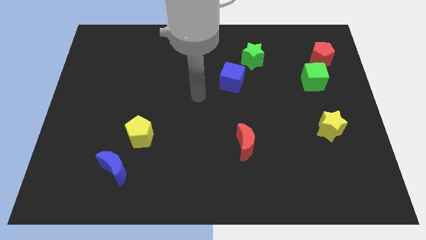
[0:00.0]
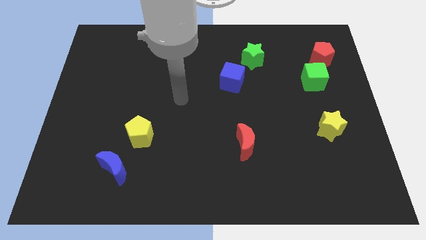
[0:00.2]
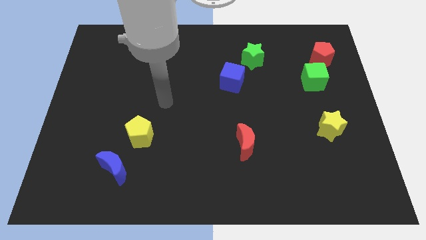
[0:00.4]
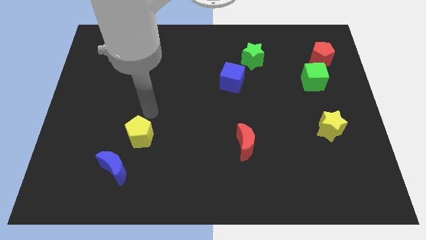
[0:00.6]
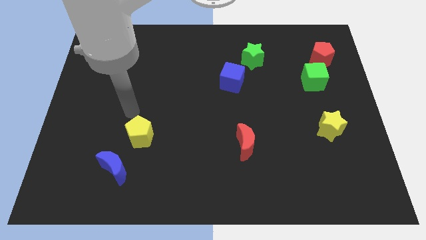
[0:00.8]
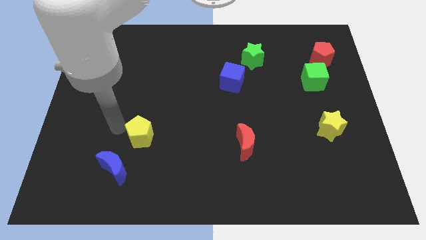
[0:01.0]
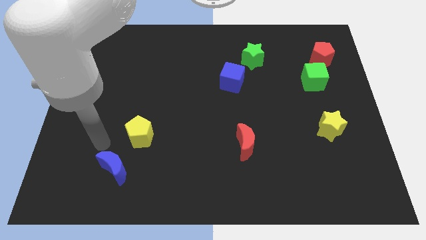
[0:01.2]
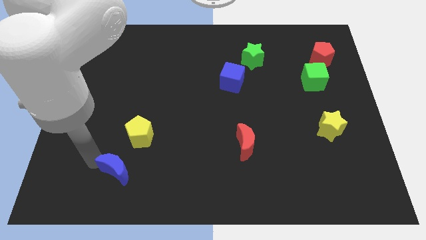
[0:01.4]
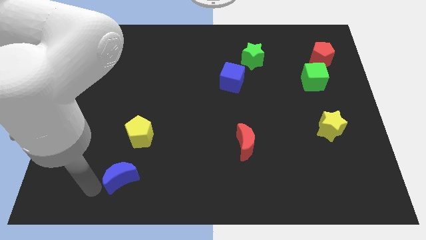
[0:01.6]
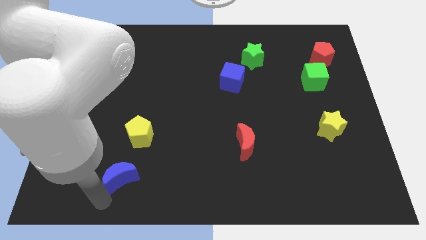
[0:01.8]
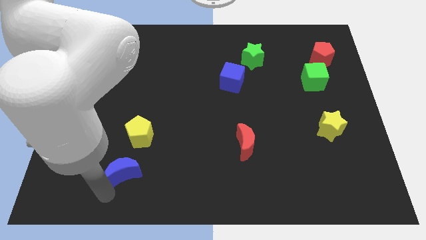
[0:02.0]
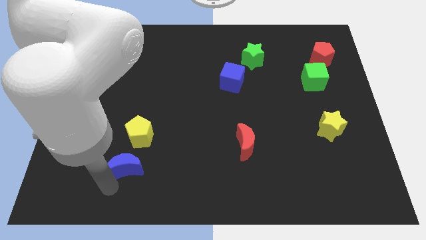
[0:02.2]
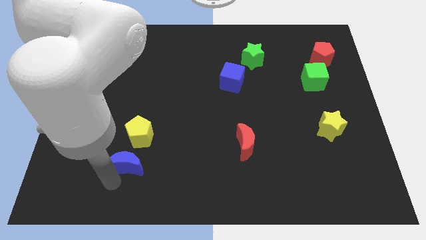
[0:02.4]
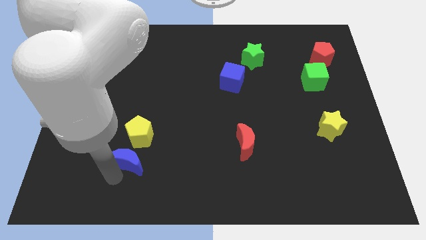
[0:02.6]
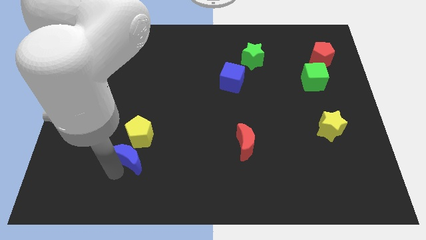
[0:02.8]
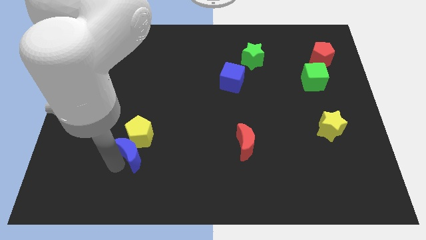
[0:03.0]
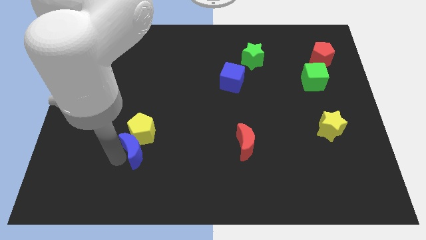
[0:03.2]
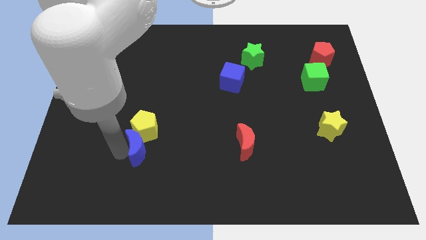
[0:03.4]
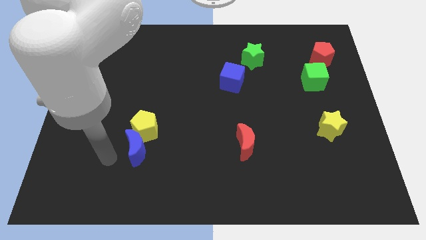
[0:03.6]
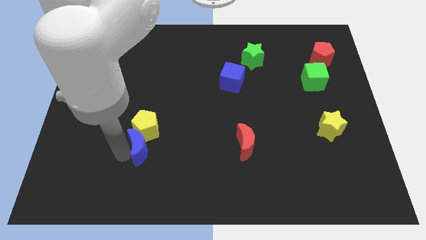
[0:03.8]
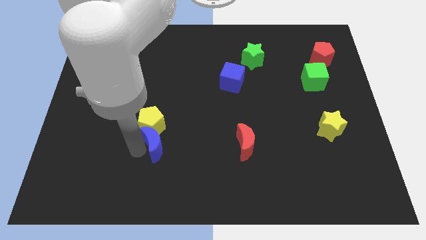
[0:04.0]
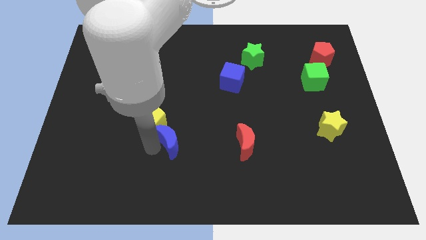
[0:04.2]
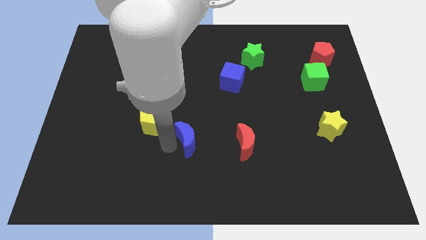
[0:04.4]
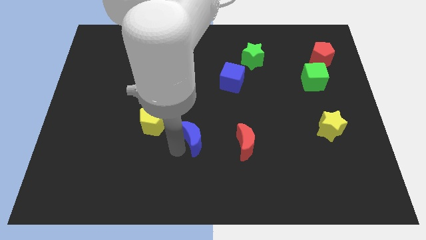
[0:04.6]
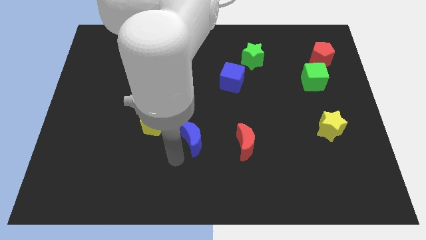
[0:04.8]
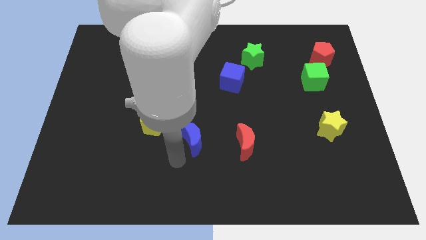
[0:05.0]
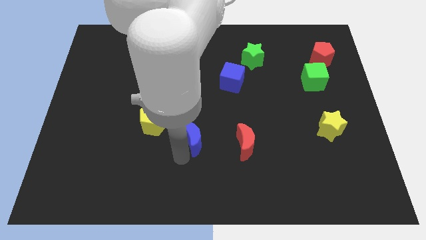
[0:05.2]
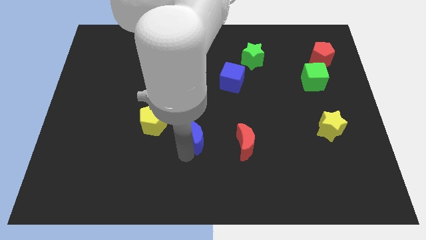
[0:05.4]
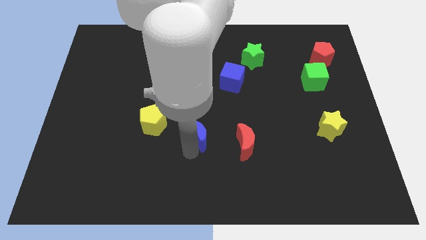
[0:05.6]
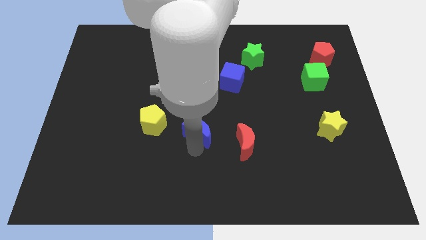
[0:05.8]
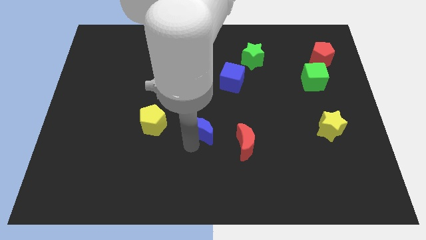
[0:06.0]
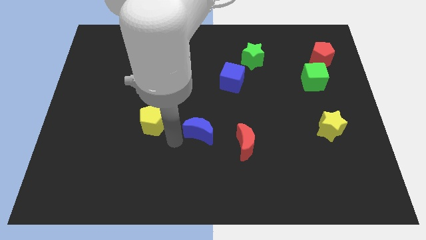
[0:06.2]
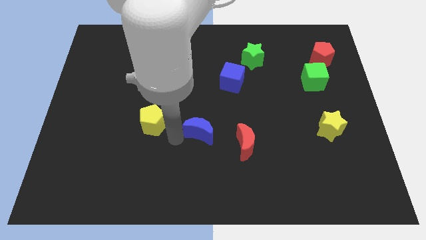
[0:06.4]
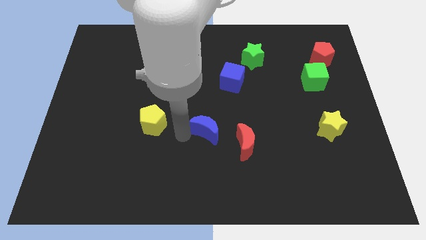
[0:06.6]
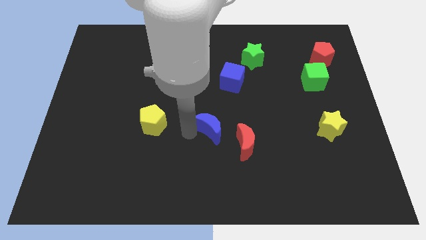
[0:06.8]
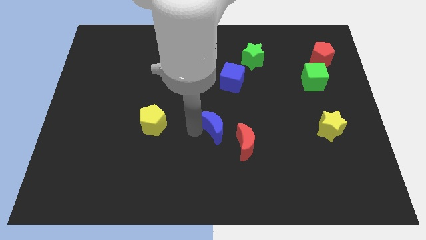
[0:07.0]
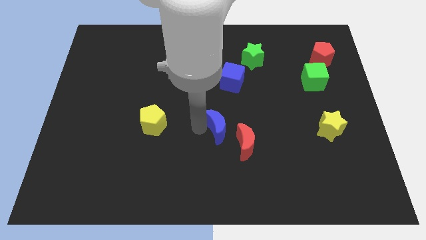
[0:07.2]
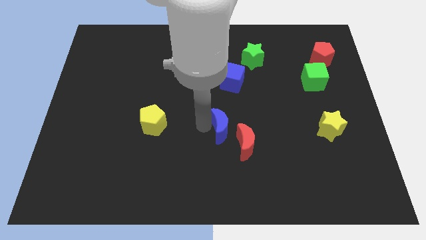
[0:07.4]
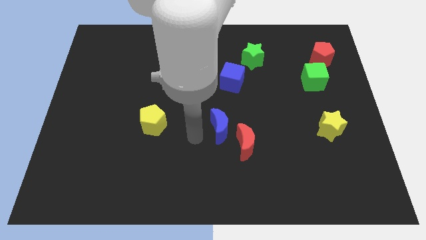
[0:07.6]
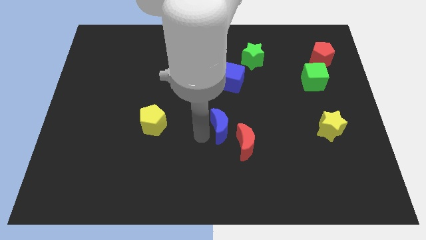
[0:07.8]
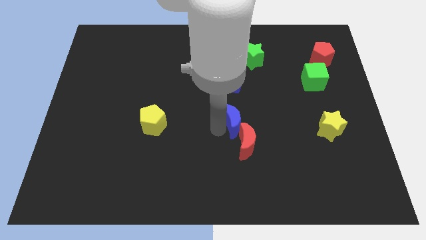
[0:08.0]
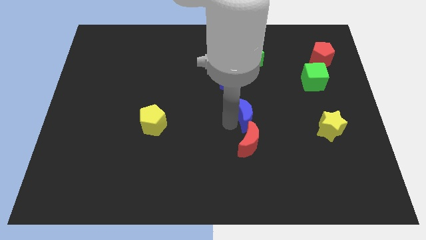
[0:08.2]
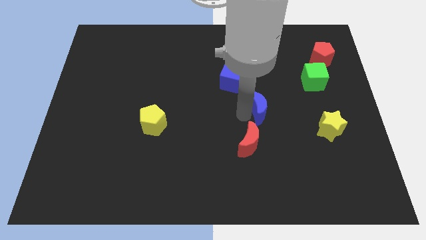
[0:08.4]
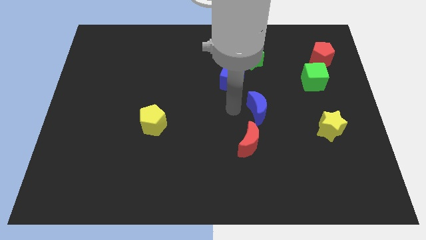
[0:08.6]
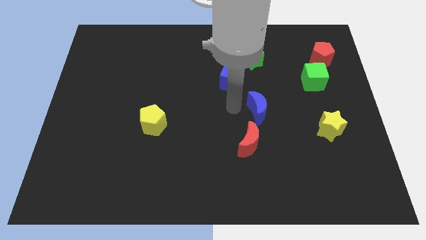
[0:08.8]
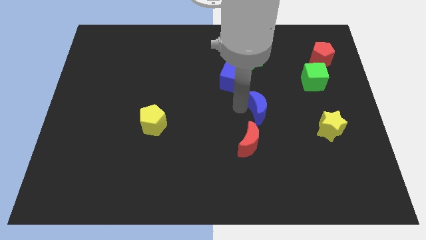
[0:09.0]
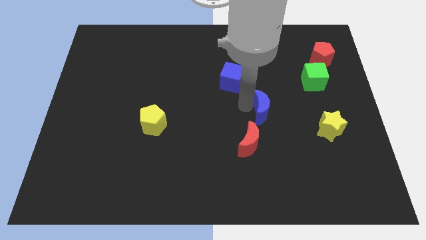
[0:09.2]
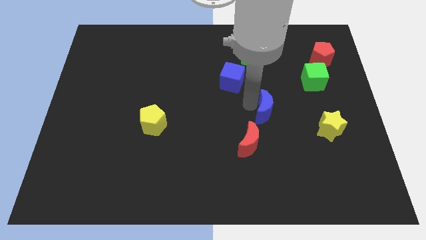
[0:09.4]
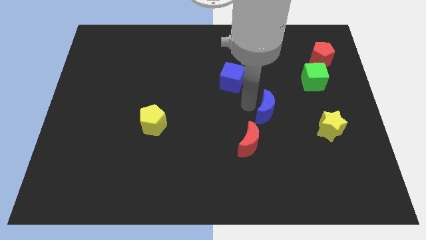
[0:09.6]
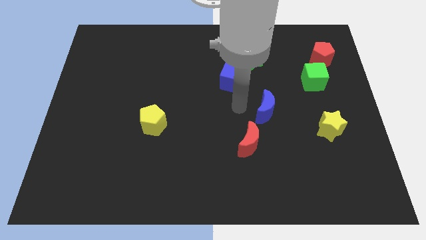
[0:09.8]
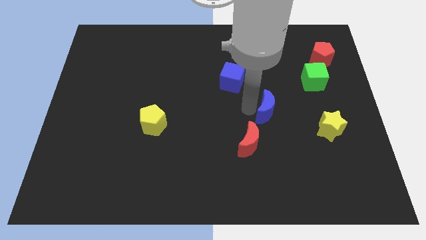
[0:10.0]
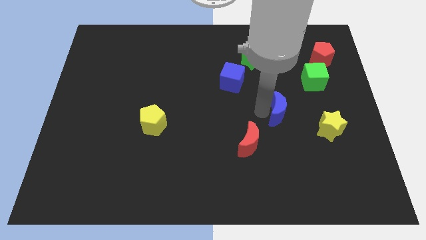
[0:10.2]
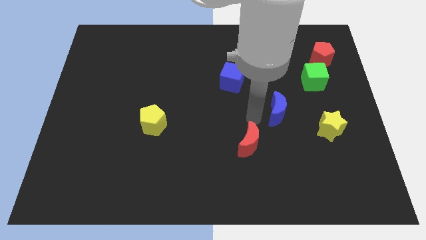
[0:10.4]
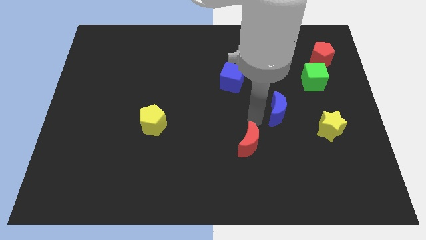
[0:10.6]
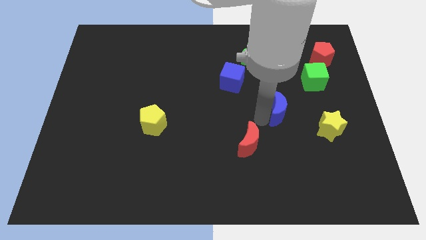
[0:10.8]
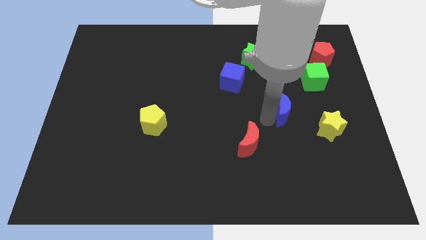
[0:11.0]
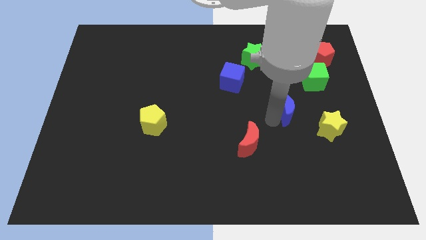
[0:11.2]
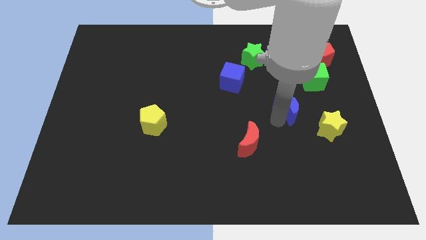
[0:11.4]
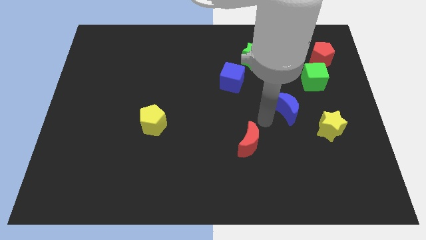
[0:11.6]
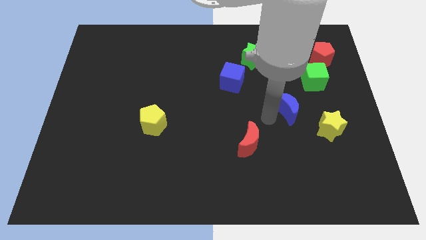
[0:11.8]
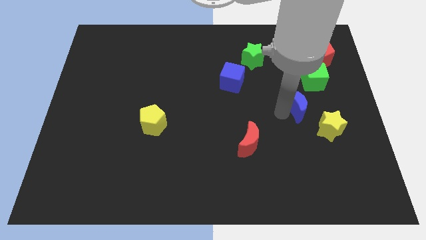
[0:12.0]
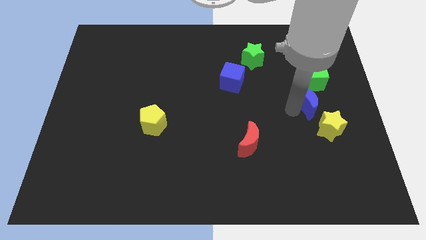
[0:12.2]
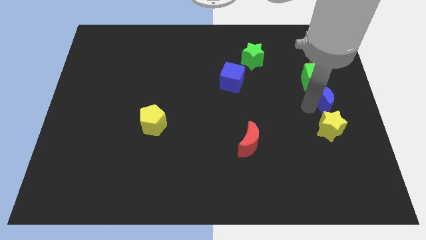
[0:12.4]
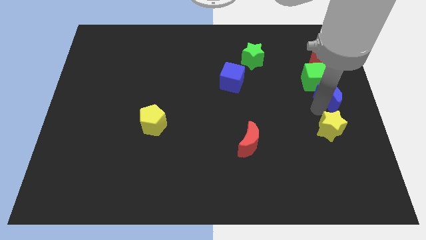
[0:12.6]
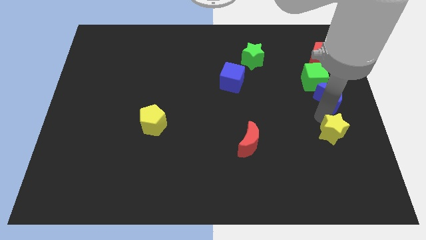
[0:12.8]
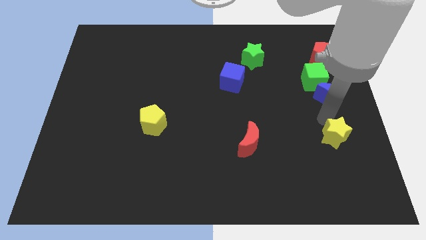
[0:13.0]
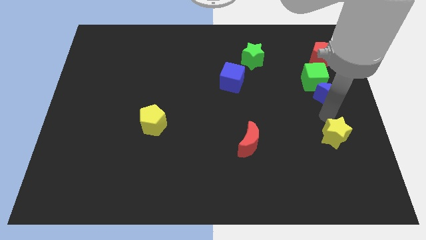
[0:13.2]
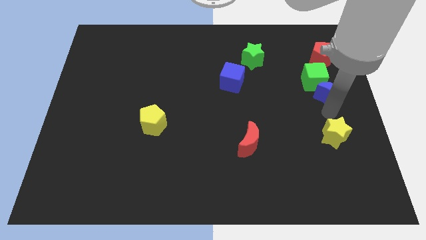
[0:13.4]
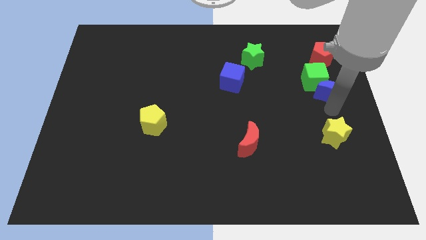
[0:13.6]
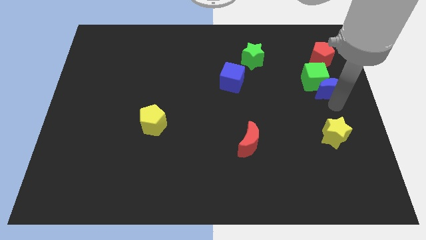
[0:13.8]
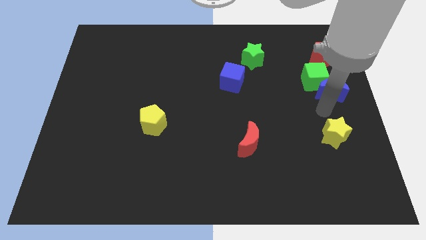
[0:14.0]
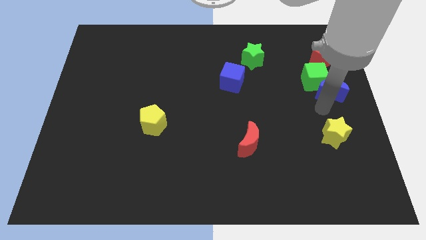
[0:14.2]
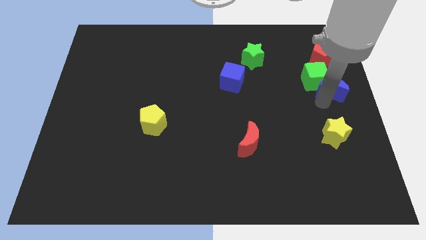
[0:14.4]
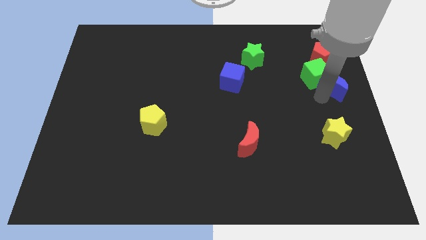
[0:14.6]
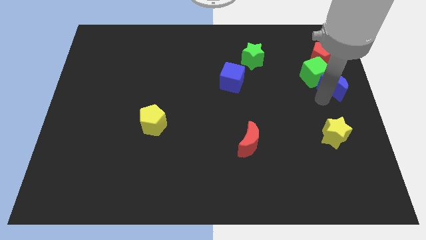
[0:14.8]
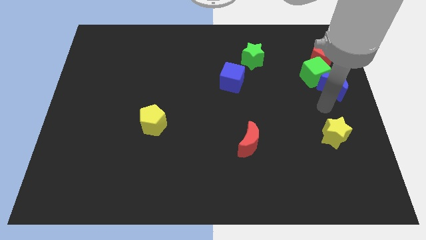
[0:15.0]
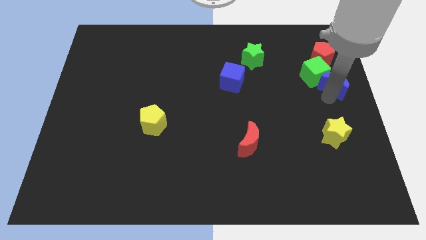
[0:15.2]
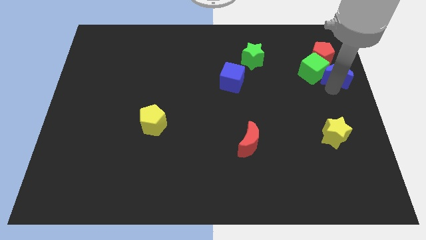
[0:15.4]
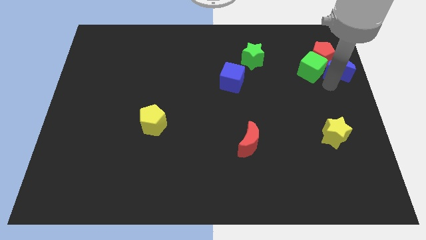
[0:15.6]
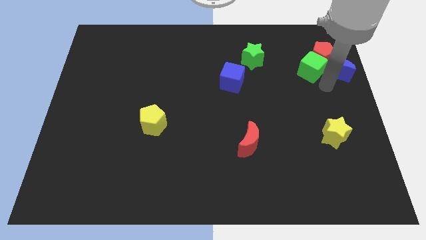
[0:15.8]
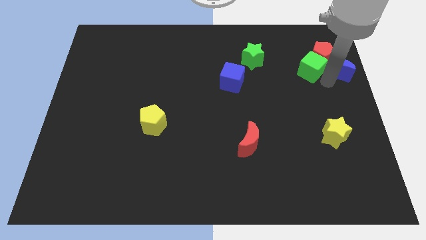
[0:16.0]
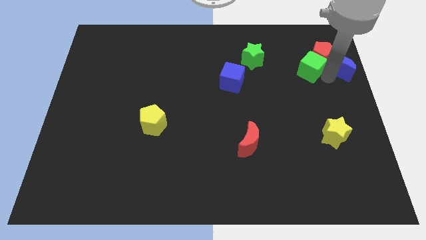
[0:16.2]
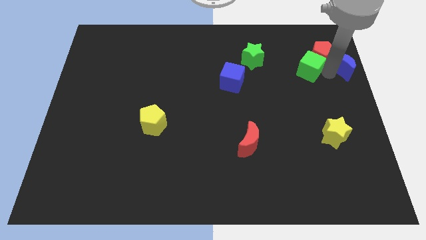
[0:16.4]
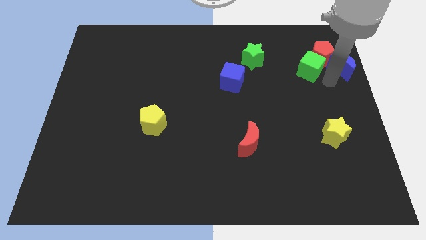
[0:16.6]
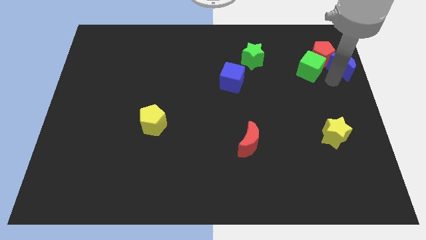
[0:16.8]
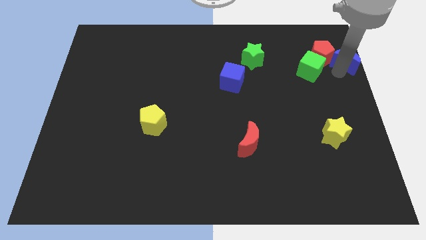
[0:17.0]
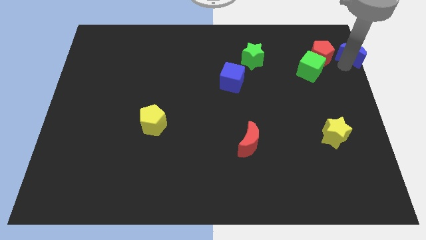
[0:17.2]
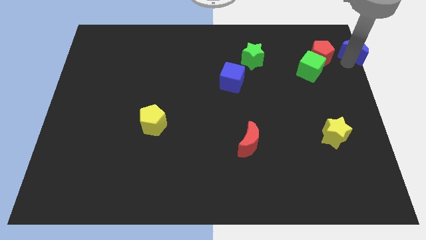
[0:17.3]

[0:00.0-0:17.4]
push the blue moon to the top right of the board
